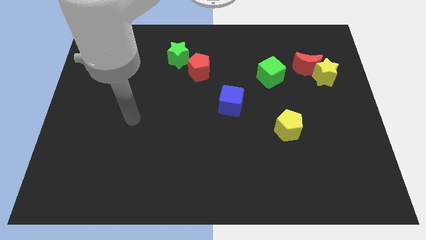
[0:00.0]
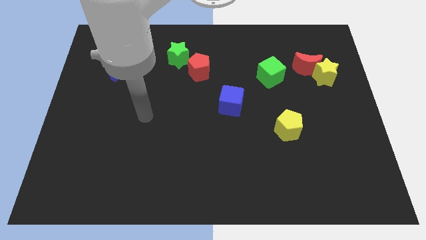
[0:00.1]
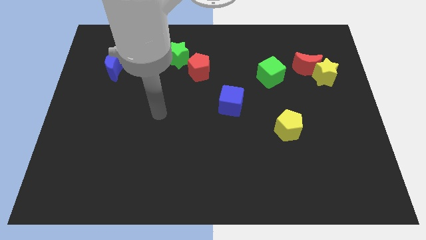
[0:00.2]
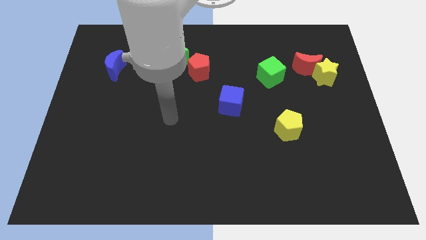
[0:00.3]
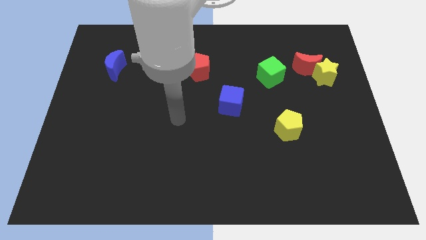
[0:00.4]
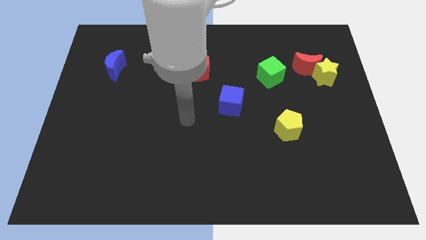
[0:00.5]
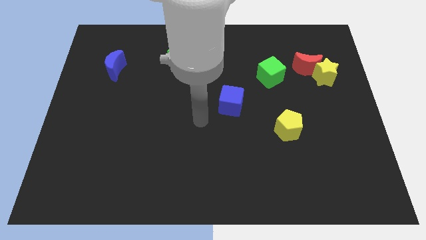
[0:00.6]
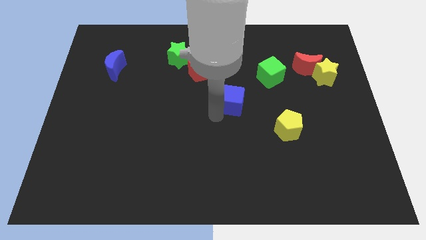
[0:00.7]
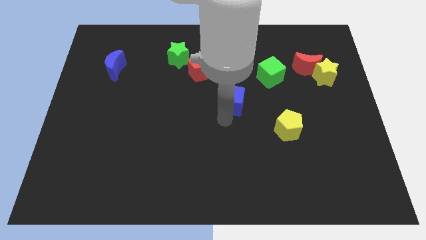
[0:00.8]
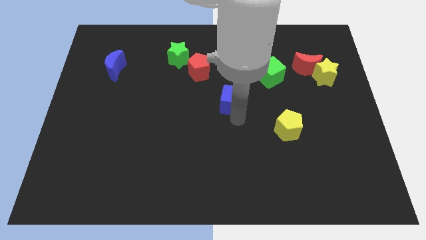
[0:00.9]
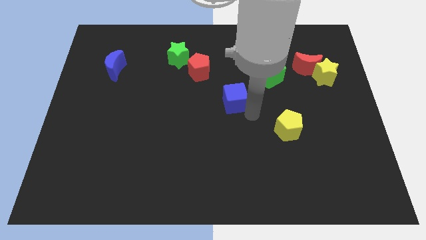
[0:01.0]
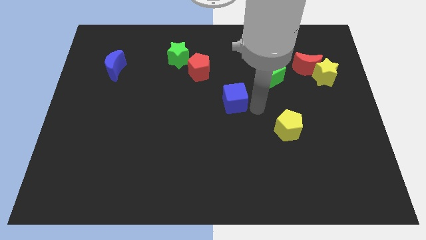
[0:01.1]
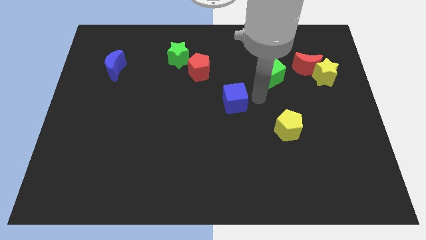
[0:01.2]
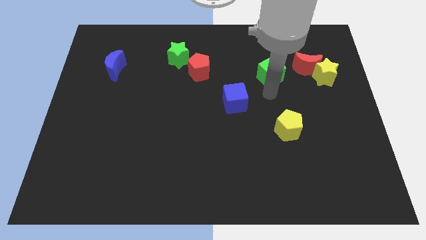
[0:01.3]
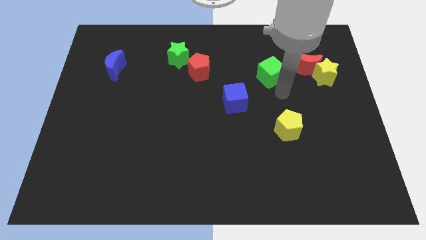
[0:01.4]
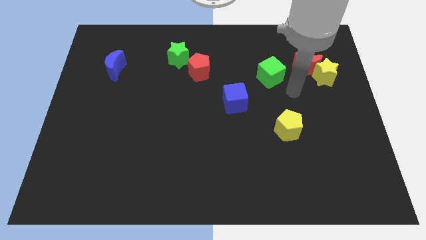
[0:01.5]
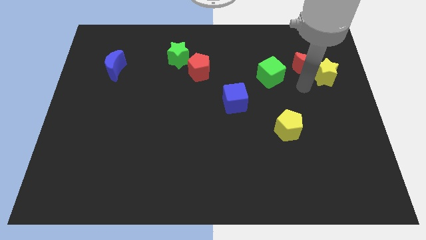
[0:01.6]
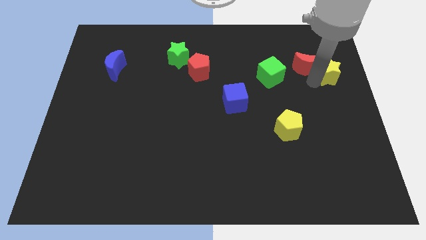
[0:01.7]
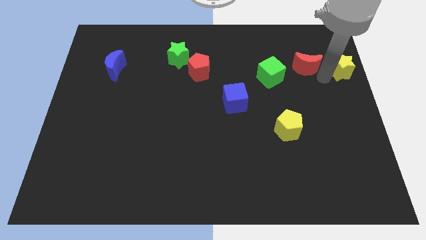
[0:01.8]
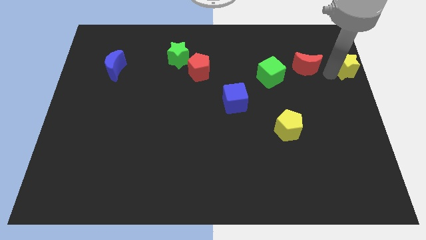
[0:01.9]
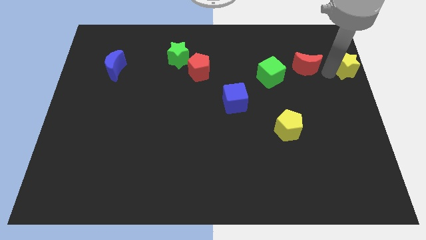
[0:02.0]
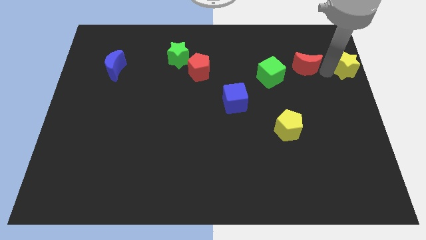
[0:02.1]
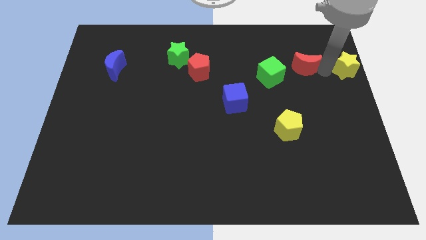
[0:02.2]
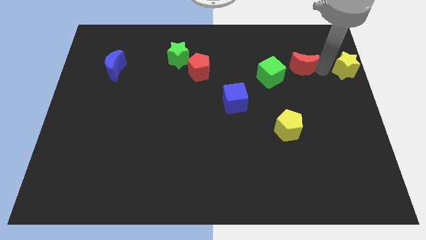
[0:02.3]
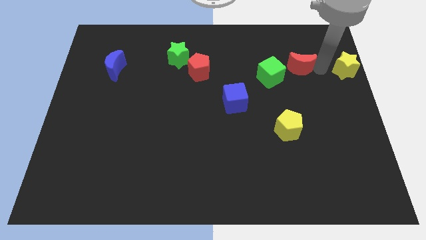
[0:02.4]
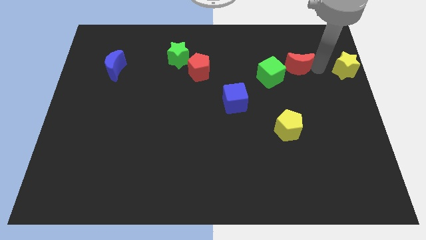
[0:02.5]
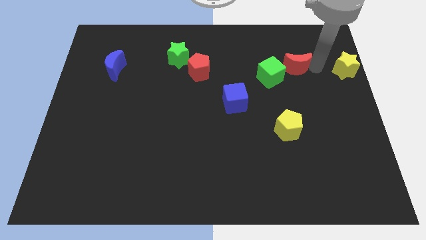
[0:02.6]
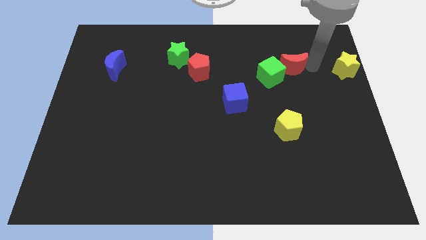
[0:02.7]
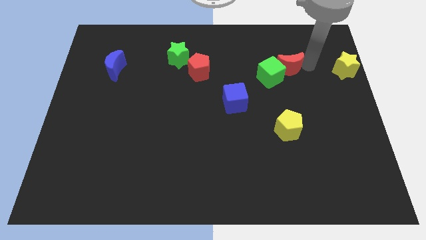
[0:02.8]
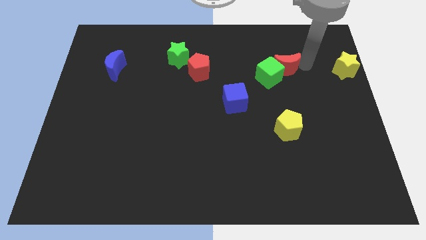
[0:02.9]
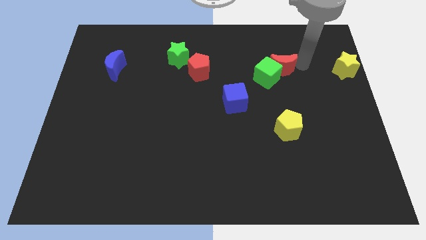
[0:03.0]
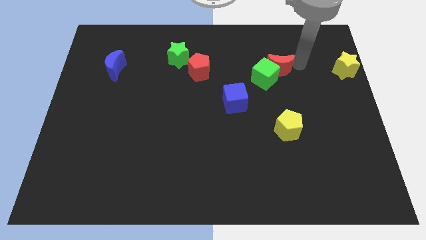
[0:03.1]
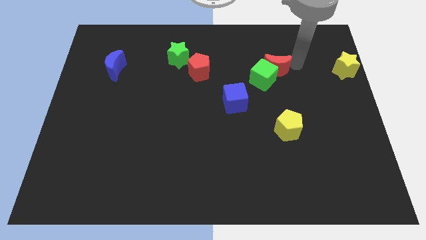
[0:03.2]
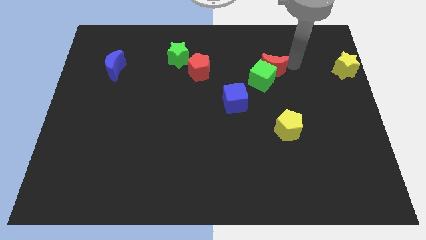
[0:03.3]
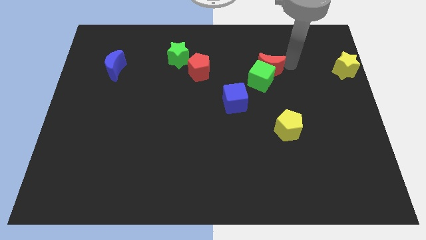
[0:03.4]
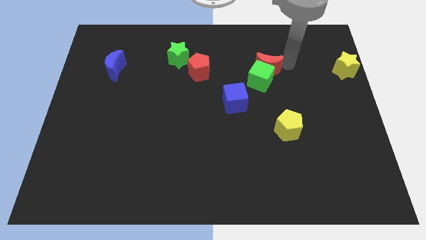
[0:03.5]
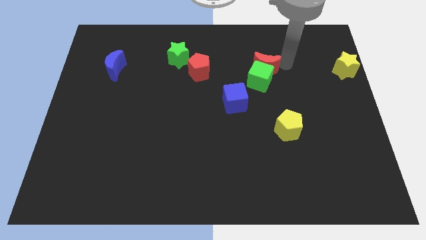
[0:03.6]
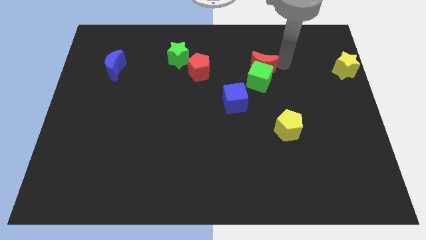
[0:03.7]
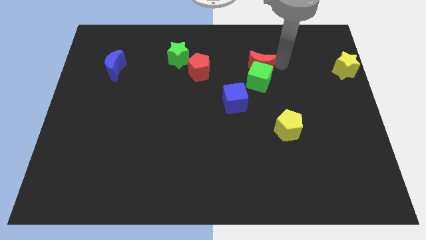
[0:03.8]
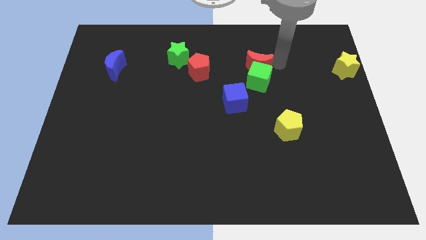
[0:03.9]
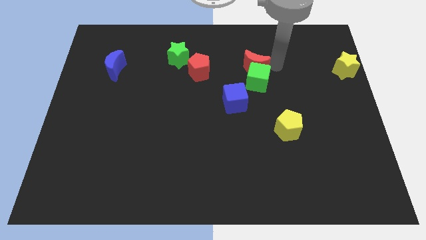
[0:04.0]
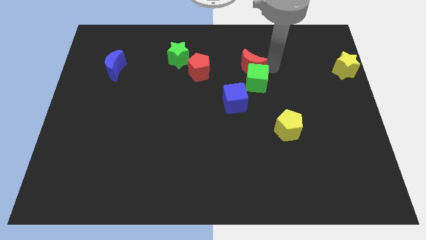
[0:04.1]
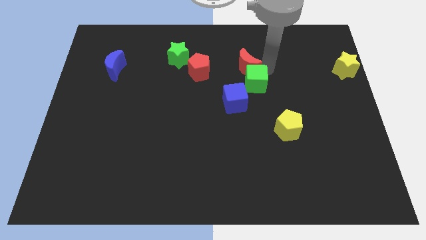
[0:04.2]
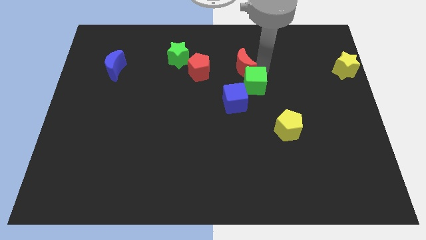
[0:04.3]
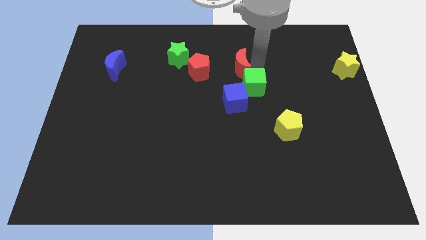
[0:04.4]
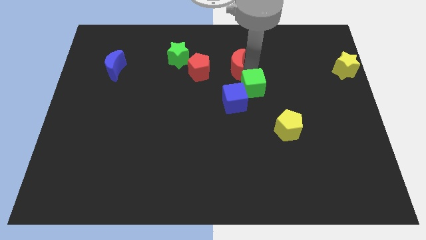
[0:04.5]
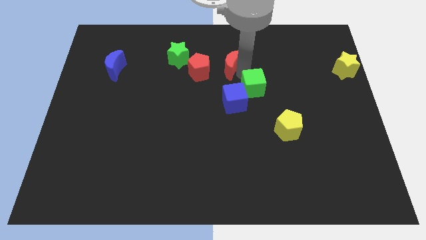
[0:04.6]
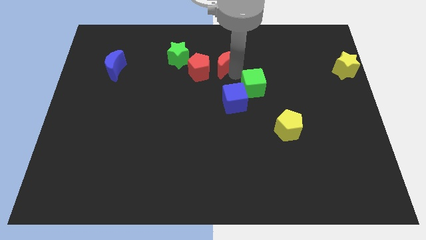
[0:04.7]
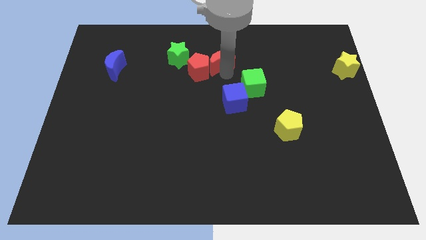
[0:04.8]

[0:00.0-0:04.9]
move the red moon next to the red pentagon

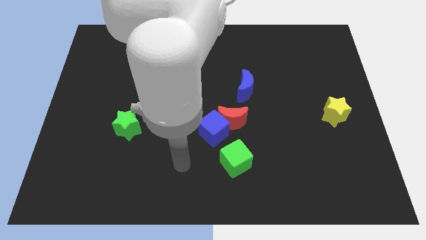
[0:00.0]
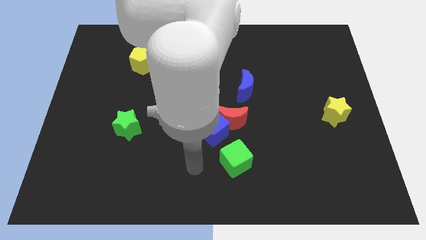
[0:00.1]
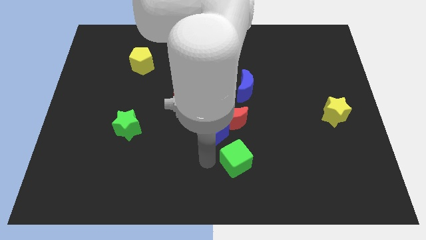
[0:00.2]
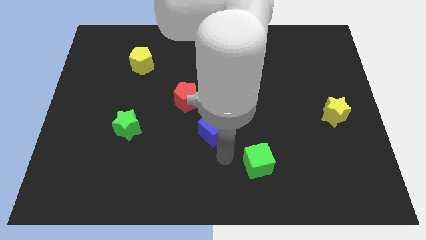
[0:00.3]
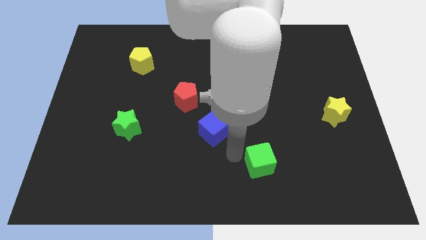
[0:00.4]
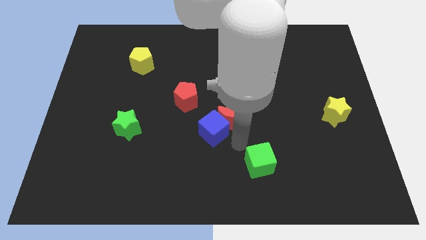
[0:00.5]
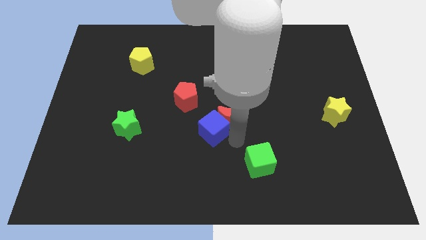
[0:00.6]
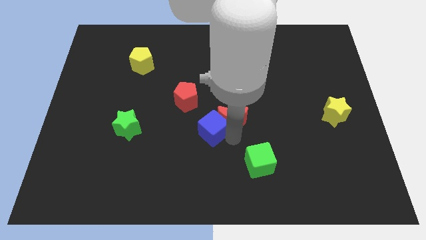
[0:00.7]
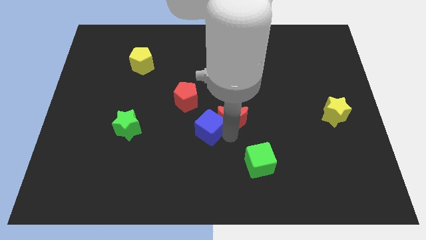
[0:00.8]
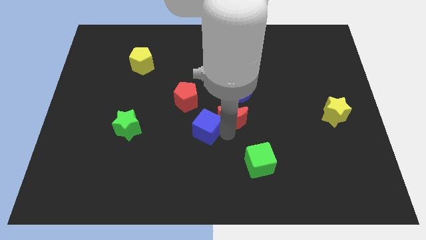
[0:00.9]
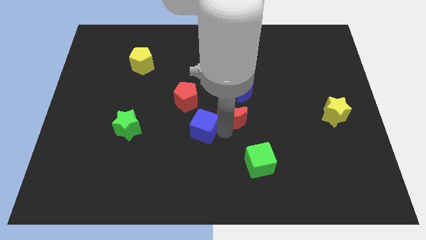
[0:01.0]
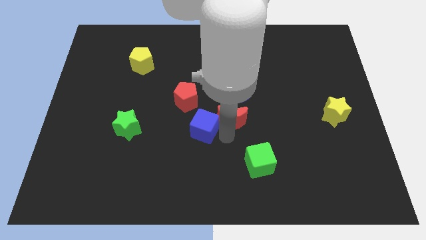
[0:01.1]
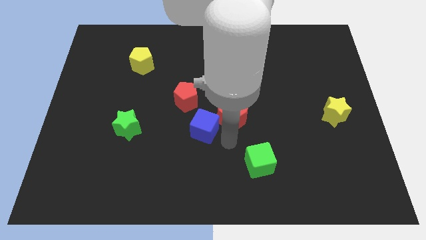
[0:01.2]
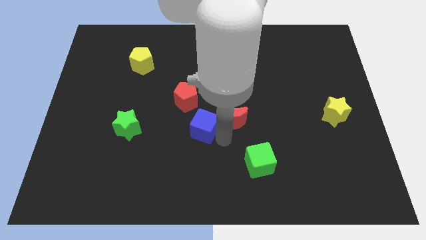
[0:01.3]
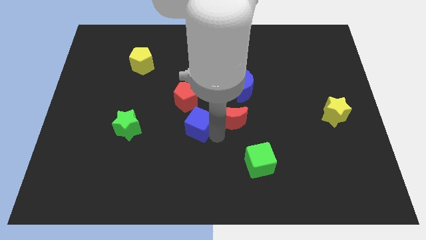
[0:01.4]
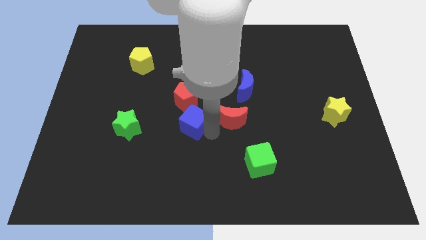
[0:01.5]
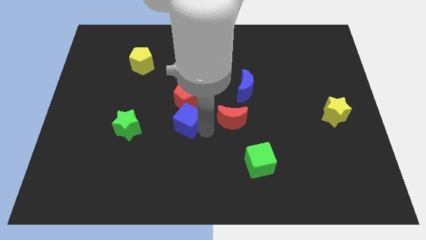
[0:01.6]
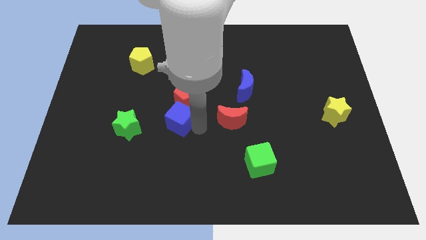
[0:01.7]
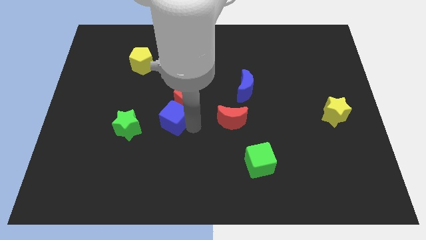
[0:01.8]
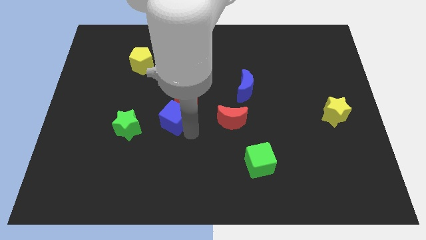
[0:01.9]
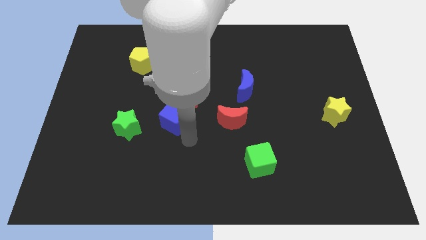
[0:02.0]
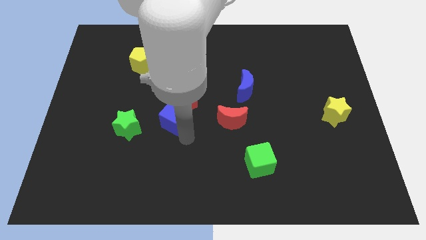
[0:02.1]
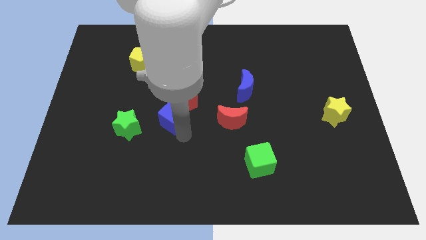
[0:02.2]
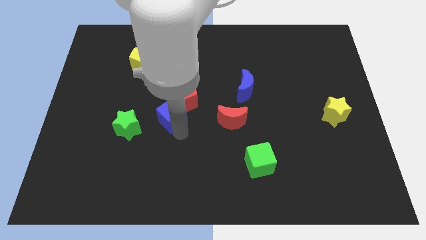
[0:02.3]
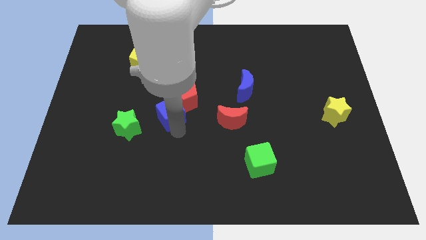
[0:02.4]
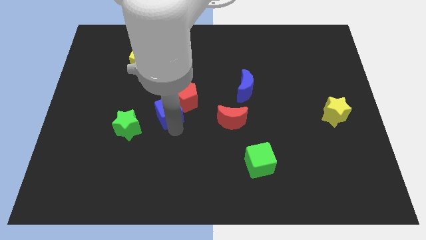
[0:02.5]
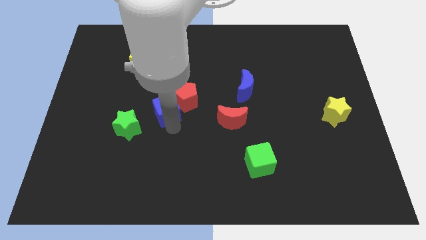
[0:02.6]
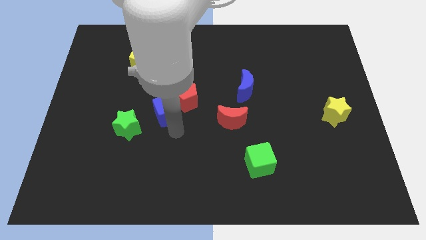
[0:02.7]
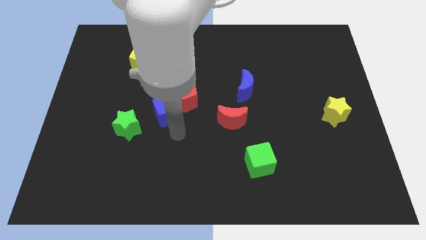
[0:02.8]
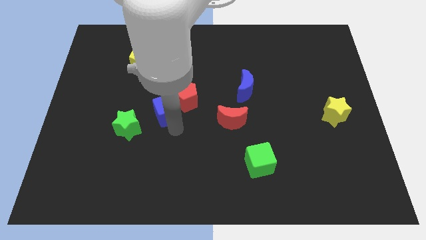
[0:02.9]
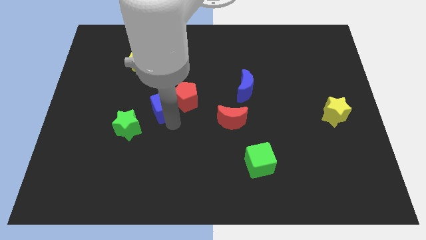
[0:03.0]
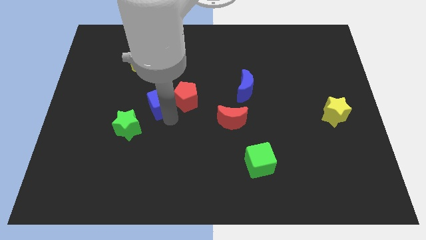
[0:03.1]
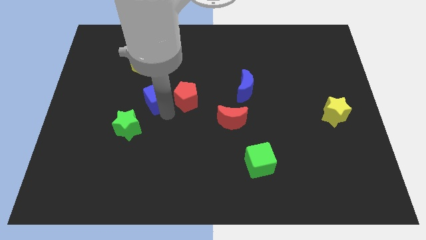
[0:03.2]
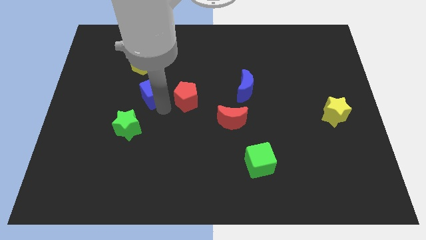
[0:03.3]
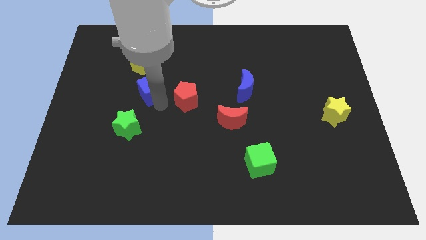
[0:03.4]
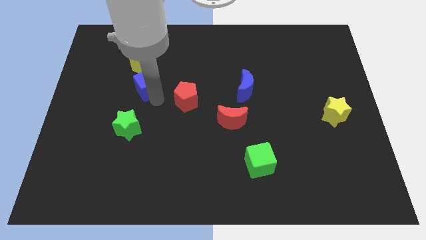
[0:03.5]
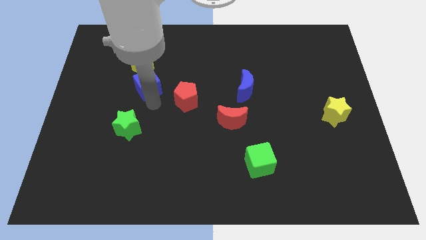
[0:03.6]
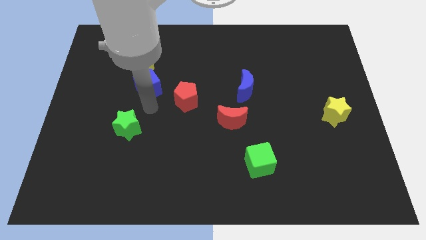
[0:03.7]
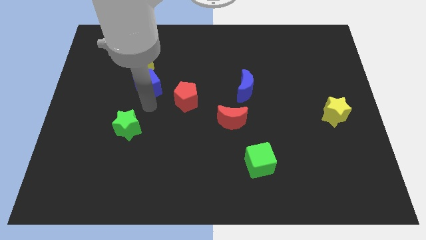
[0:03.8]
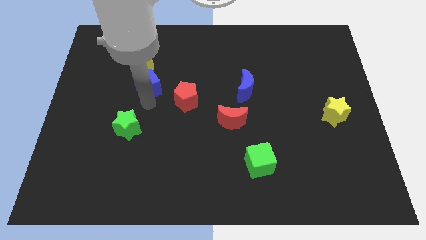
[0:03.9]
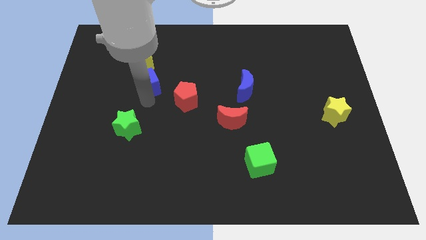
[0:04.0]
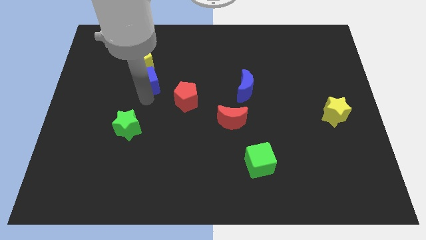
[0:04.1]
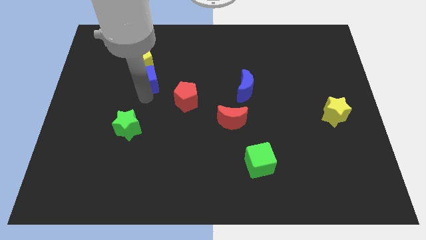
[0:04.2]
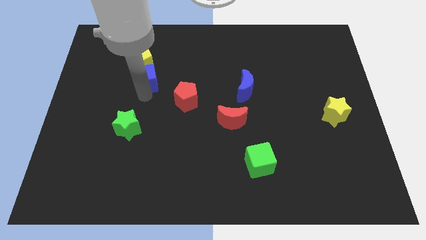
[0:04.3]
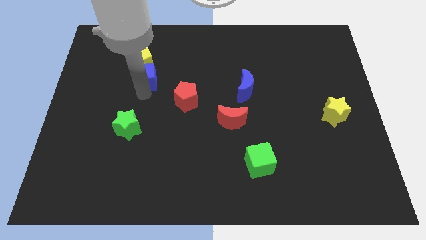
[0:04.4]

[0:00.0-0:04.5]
move the blue cube towards the yellow pentagon
